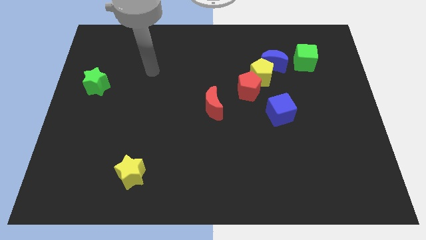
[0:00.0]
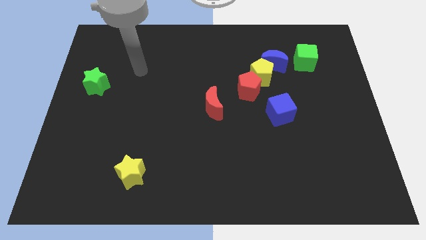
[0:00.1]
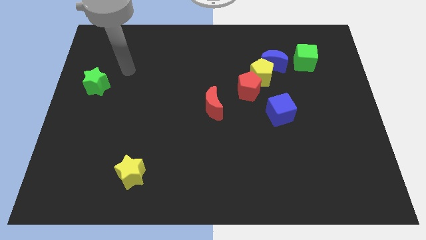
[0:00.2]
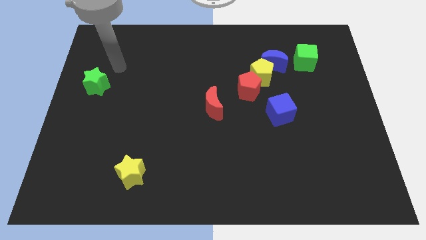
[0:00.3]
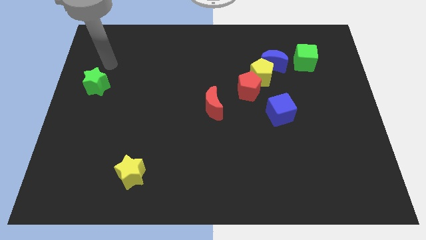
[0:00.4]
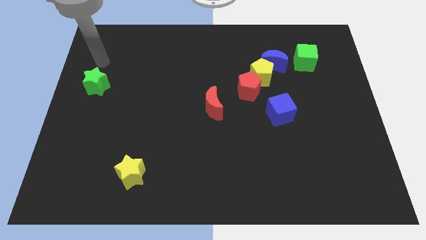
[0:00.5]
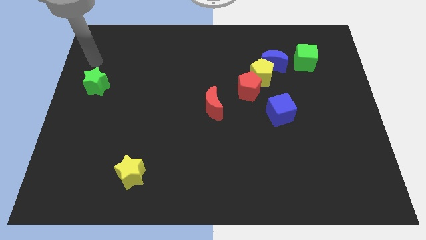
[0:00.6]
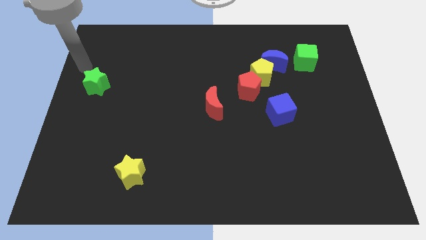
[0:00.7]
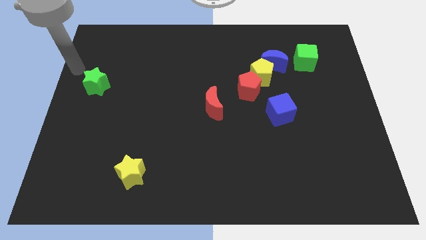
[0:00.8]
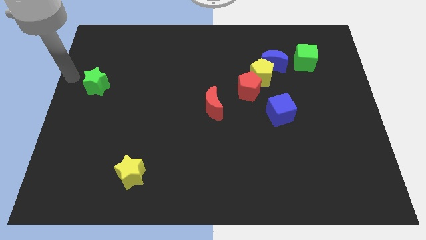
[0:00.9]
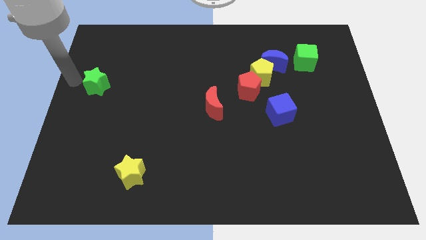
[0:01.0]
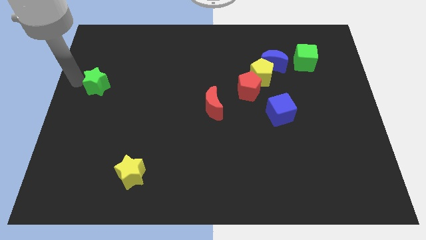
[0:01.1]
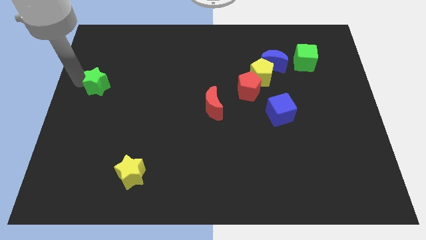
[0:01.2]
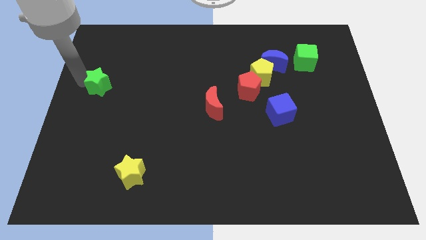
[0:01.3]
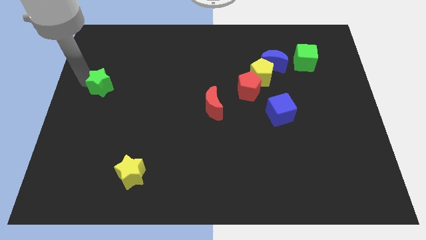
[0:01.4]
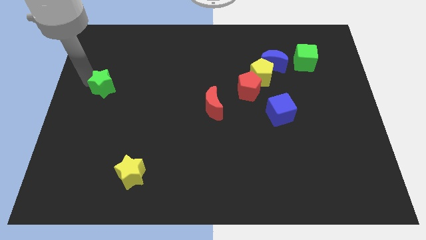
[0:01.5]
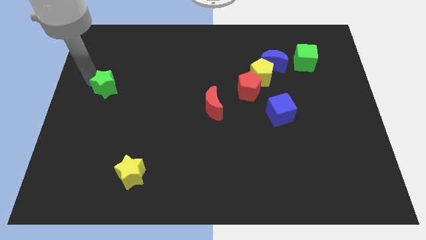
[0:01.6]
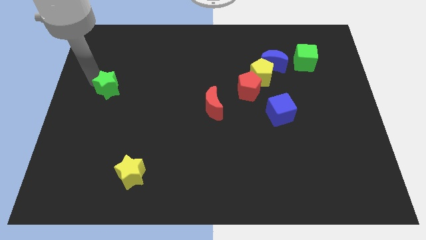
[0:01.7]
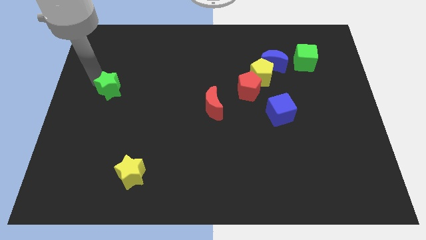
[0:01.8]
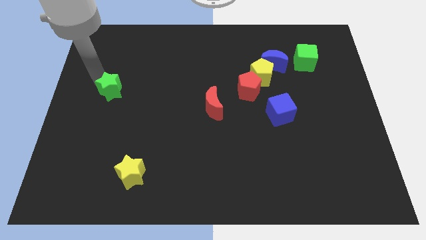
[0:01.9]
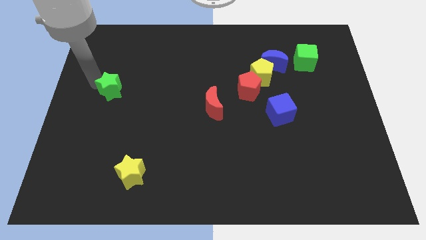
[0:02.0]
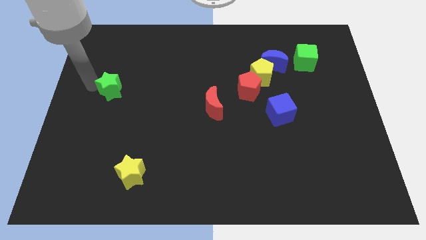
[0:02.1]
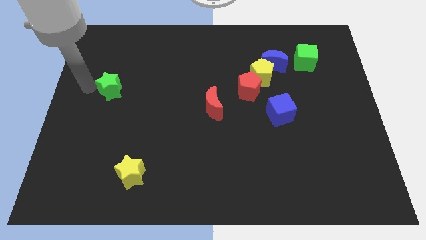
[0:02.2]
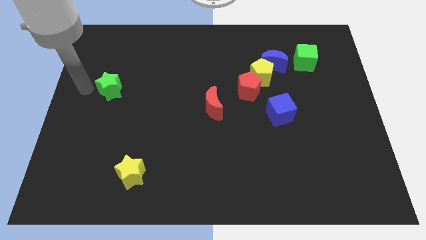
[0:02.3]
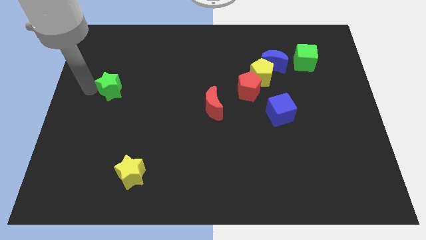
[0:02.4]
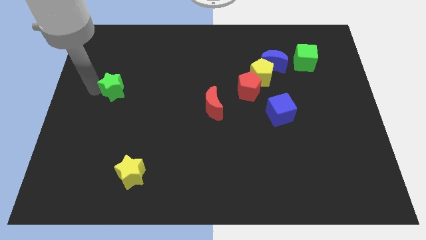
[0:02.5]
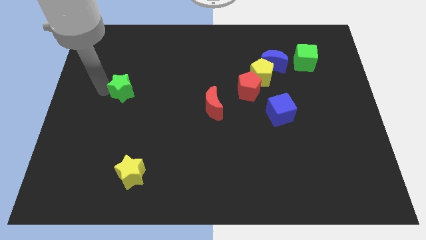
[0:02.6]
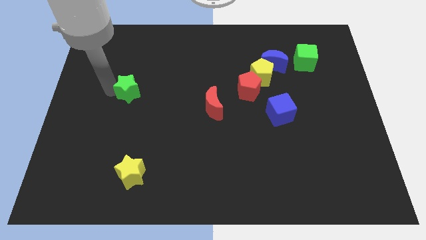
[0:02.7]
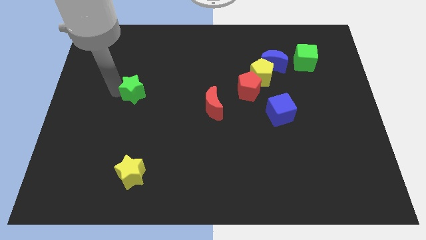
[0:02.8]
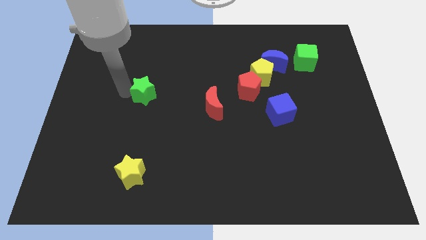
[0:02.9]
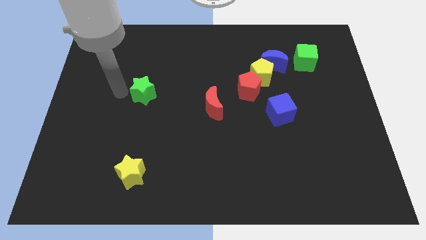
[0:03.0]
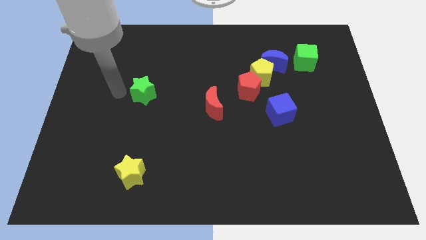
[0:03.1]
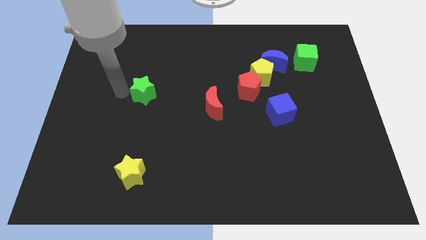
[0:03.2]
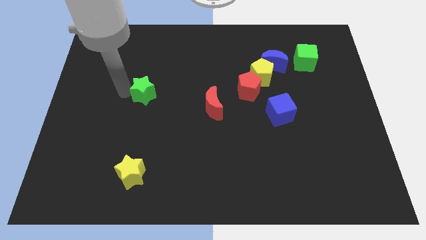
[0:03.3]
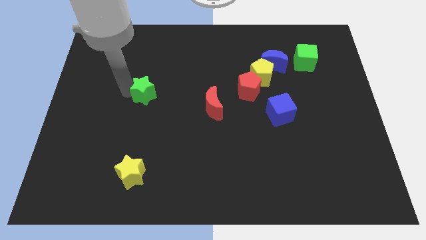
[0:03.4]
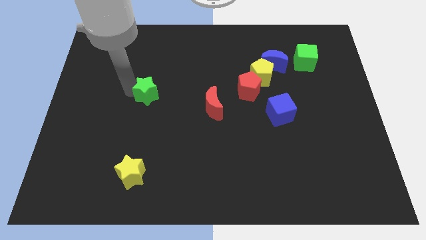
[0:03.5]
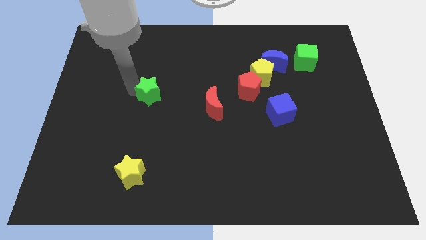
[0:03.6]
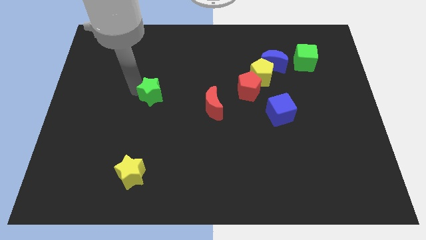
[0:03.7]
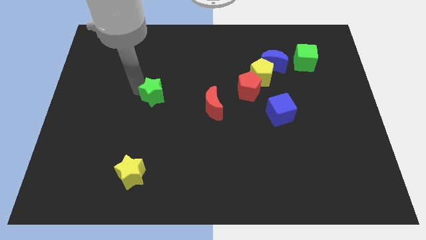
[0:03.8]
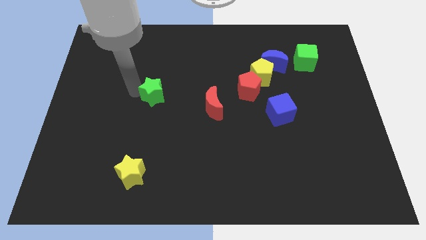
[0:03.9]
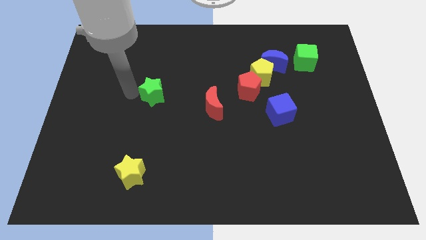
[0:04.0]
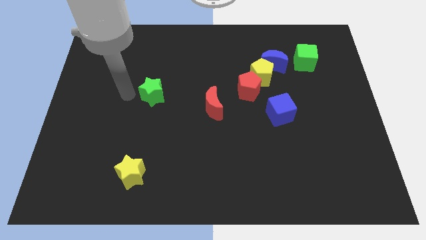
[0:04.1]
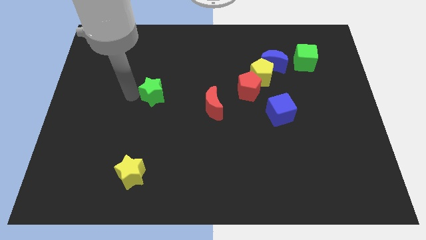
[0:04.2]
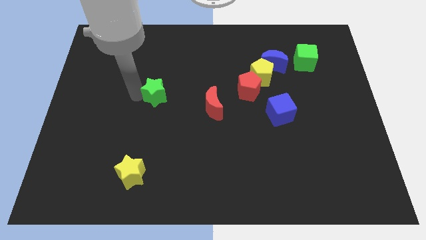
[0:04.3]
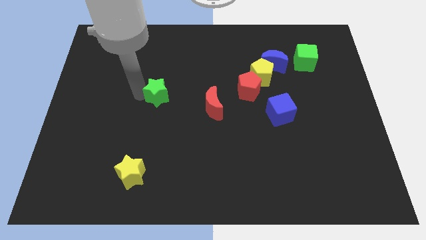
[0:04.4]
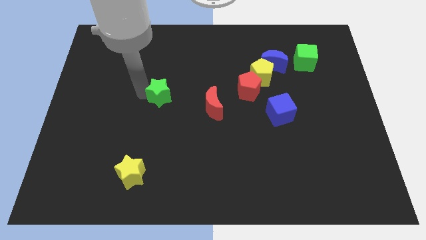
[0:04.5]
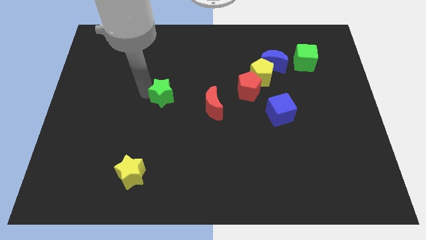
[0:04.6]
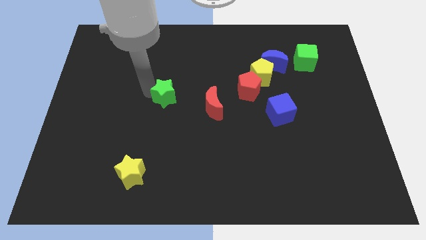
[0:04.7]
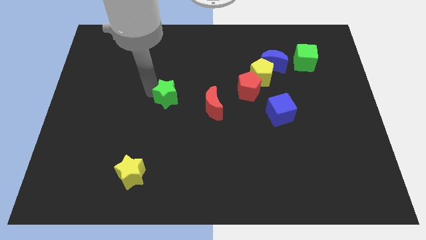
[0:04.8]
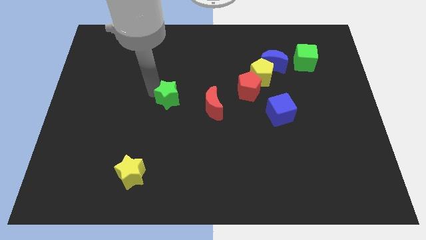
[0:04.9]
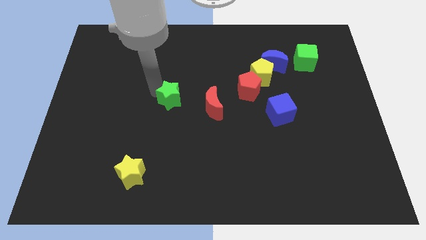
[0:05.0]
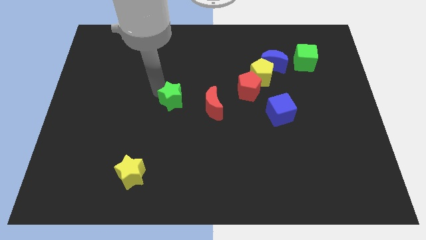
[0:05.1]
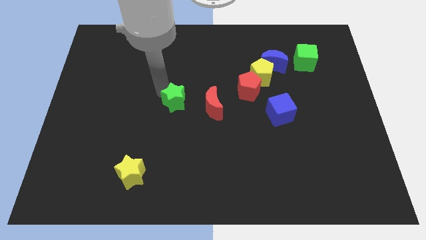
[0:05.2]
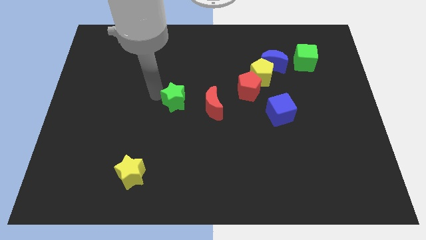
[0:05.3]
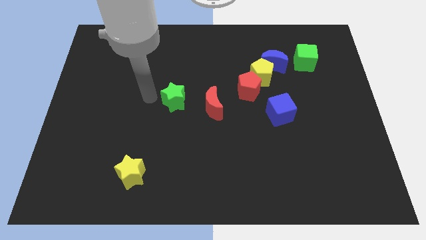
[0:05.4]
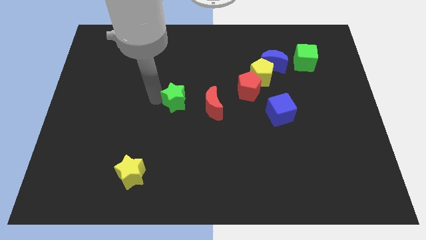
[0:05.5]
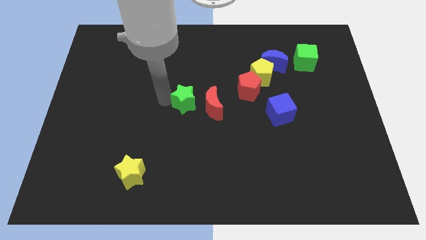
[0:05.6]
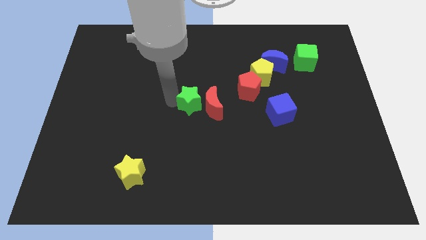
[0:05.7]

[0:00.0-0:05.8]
push the green star next to the red moon
